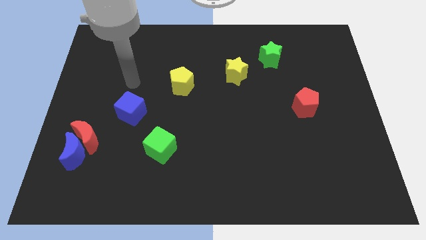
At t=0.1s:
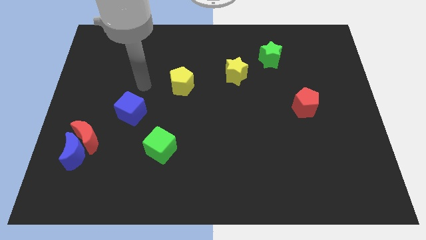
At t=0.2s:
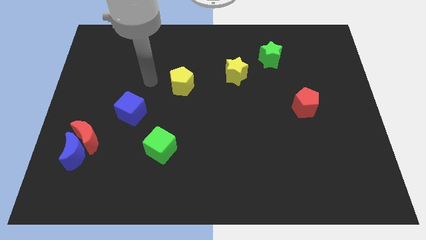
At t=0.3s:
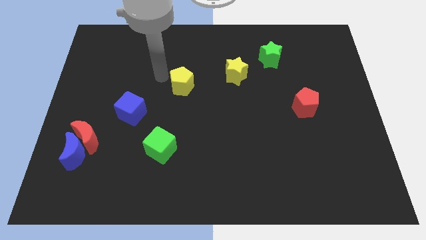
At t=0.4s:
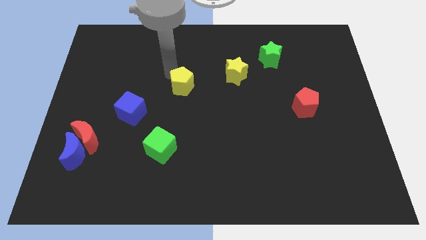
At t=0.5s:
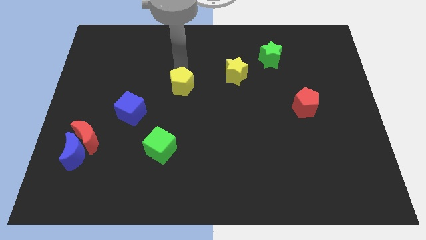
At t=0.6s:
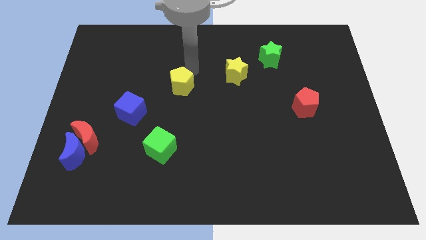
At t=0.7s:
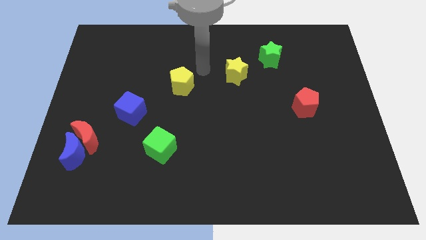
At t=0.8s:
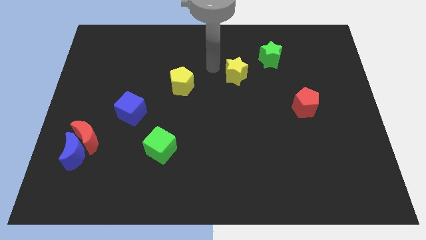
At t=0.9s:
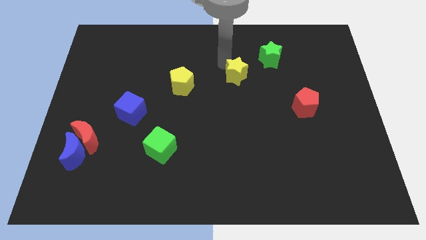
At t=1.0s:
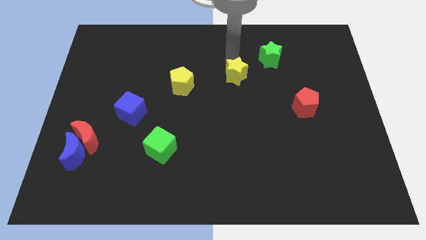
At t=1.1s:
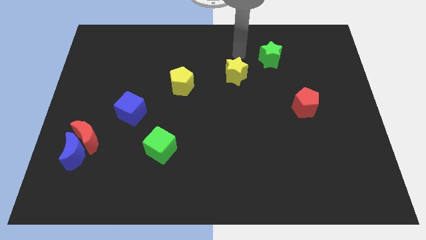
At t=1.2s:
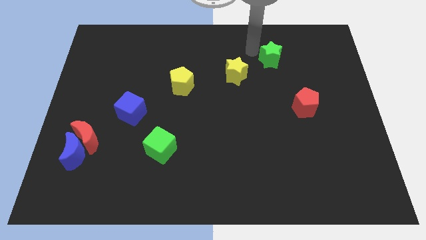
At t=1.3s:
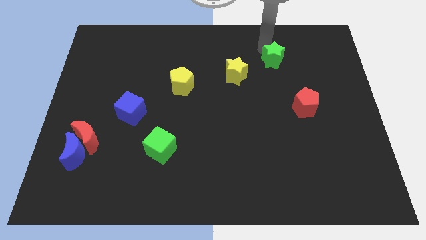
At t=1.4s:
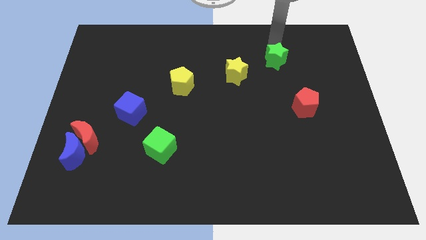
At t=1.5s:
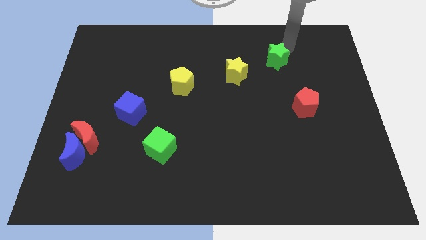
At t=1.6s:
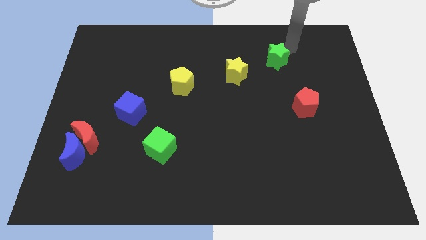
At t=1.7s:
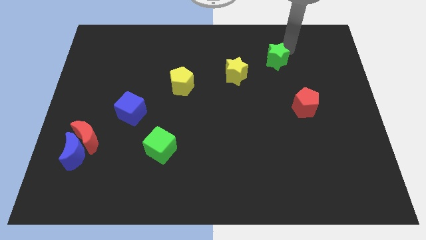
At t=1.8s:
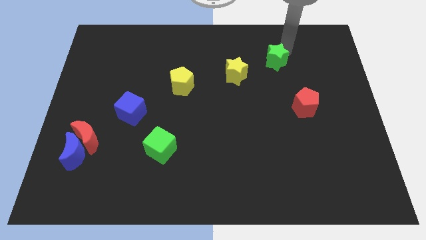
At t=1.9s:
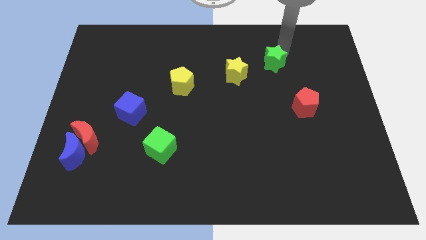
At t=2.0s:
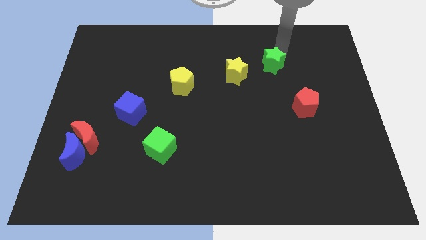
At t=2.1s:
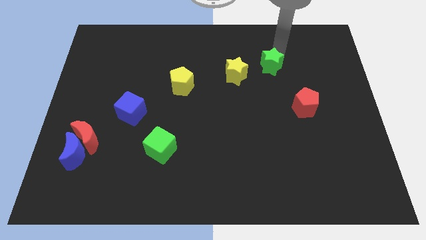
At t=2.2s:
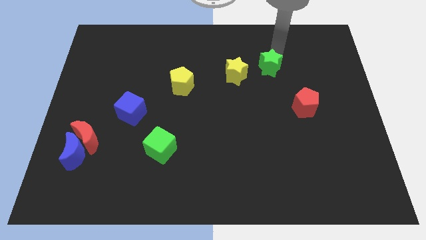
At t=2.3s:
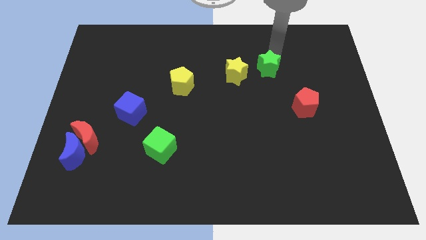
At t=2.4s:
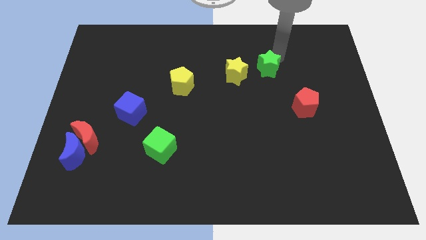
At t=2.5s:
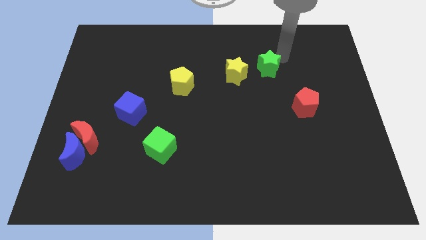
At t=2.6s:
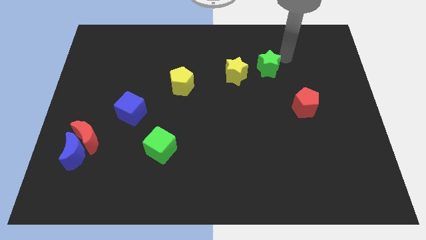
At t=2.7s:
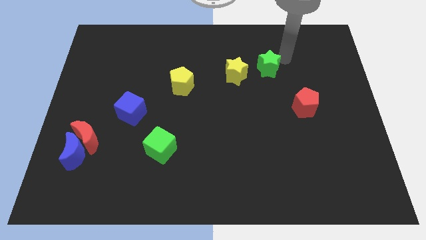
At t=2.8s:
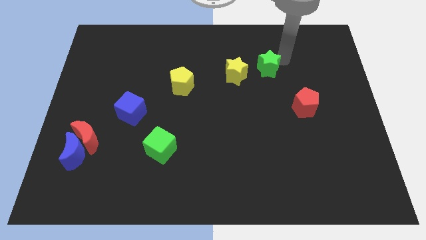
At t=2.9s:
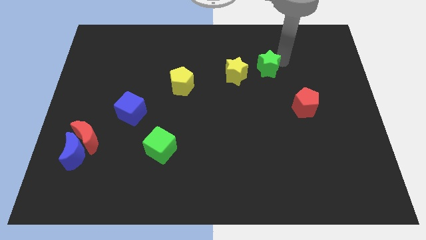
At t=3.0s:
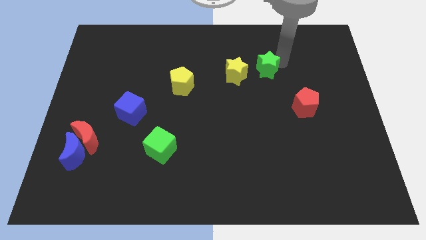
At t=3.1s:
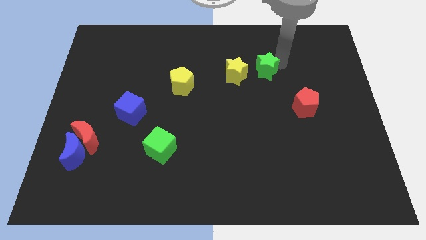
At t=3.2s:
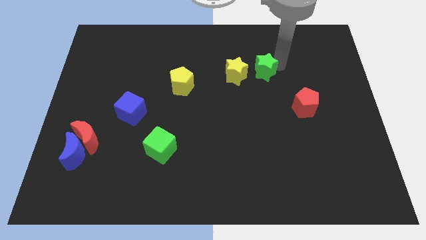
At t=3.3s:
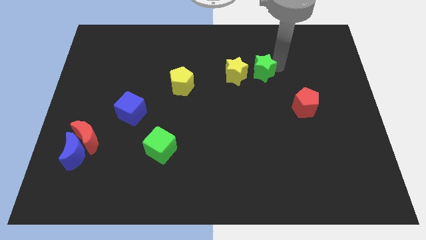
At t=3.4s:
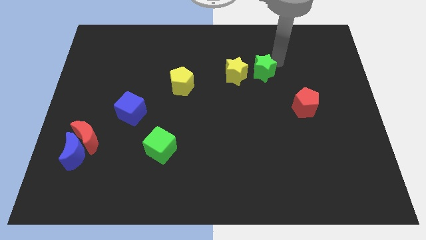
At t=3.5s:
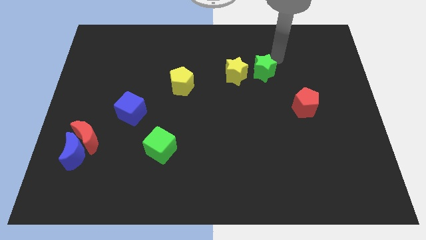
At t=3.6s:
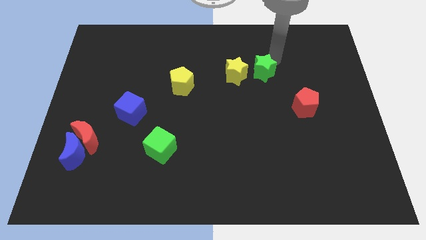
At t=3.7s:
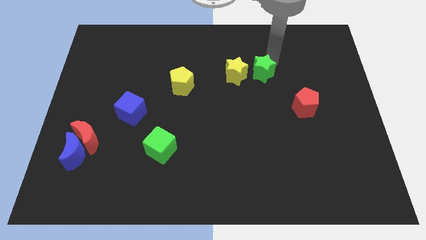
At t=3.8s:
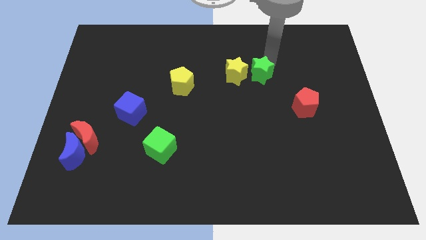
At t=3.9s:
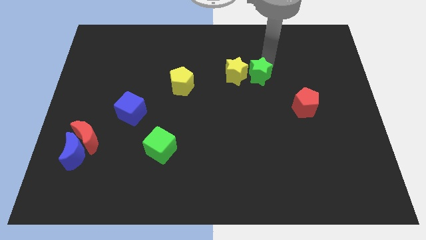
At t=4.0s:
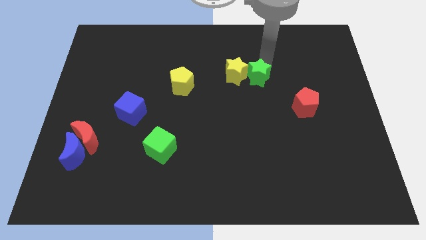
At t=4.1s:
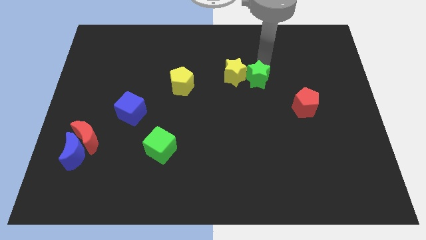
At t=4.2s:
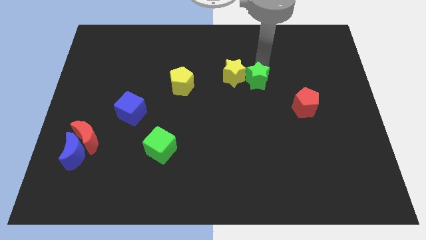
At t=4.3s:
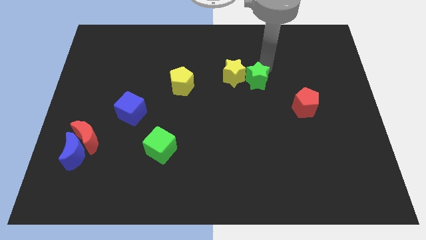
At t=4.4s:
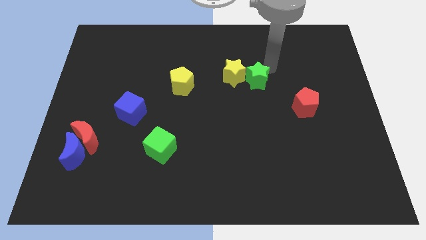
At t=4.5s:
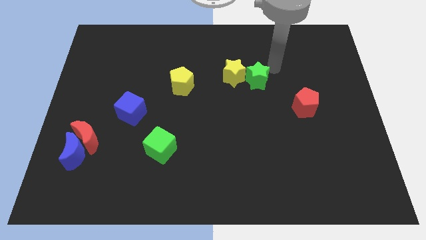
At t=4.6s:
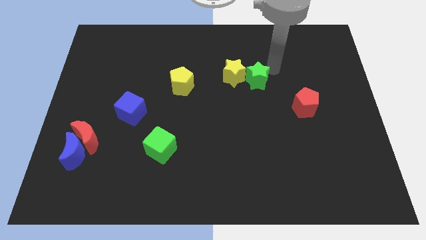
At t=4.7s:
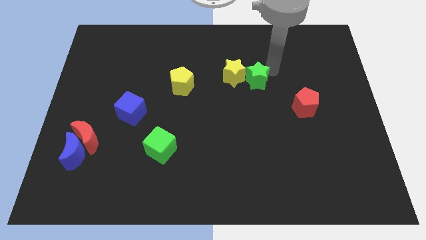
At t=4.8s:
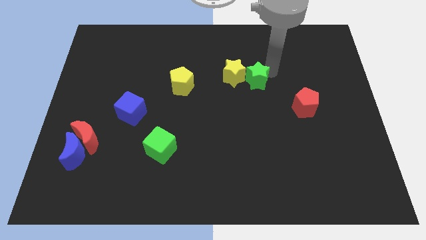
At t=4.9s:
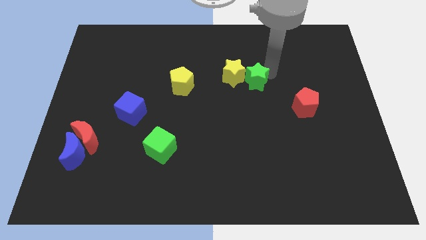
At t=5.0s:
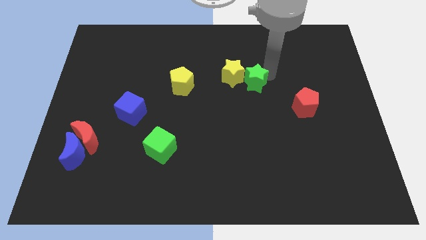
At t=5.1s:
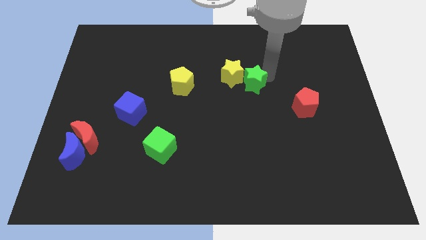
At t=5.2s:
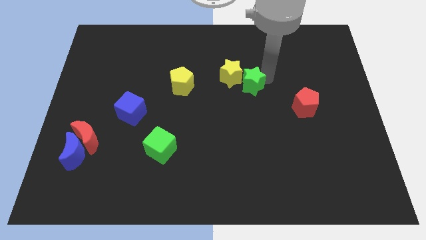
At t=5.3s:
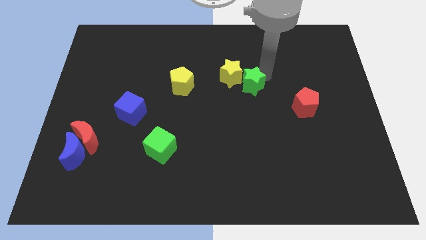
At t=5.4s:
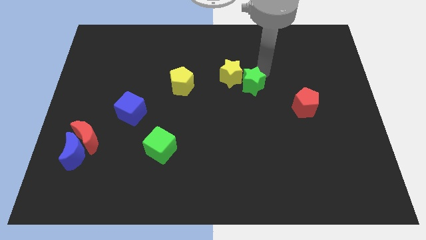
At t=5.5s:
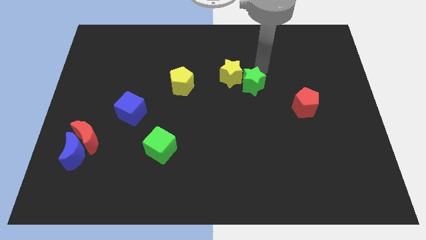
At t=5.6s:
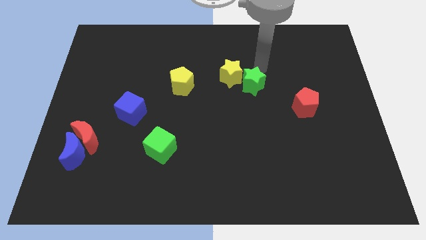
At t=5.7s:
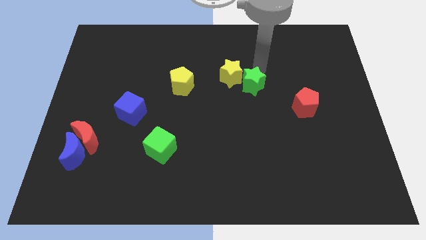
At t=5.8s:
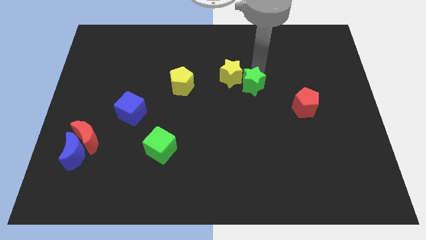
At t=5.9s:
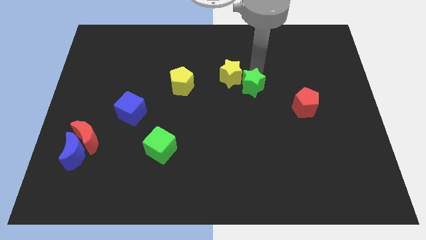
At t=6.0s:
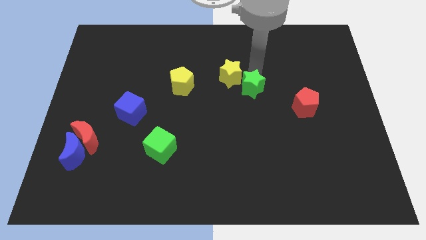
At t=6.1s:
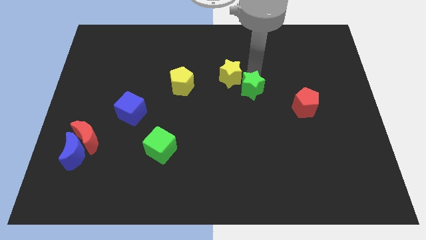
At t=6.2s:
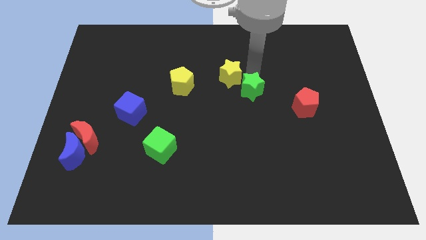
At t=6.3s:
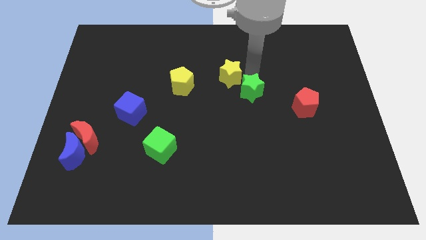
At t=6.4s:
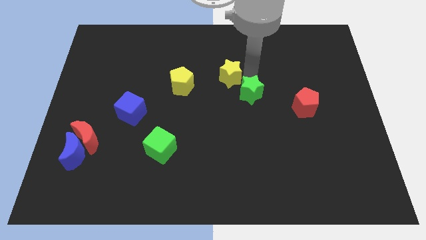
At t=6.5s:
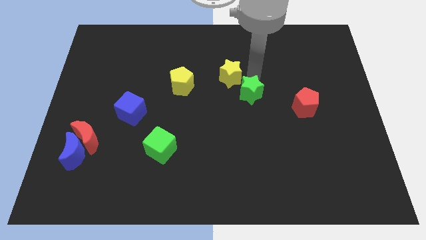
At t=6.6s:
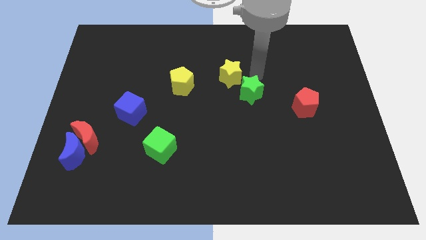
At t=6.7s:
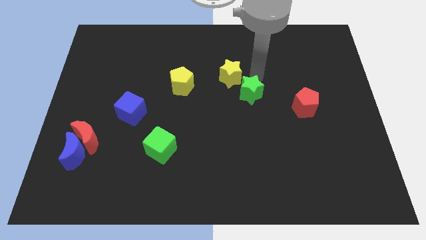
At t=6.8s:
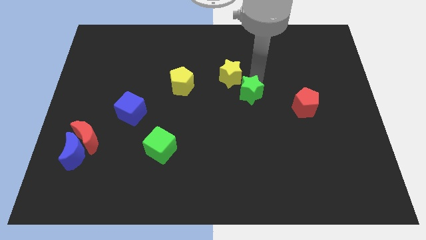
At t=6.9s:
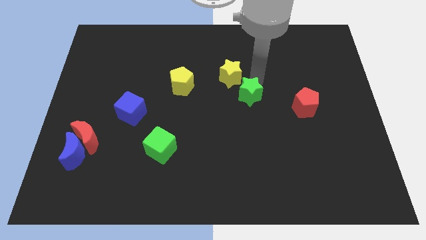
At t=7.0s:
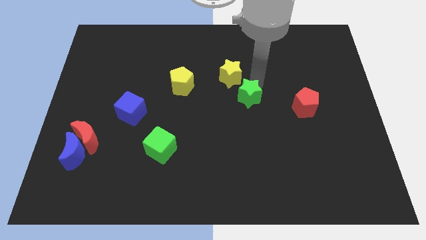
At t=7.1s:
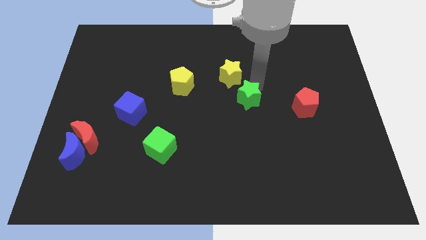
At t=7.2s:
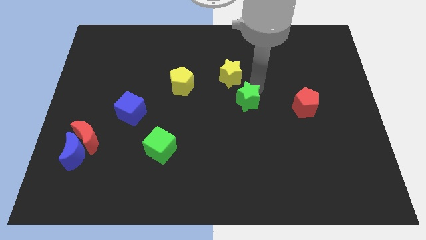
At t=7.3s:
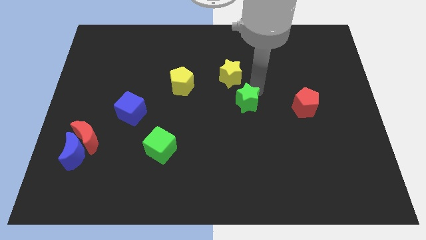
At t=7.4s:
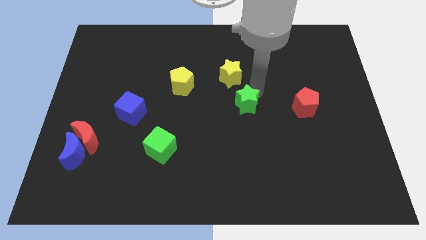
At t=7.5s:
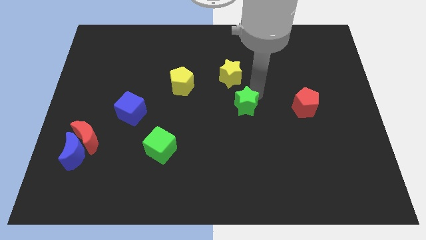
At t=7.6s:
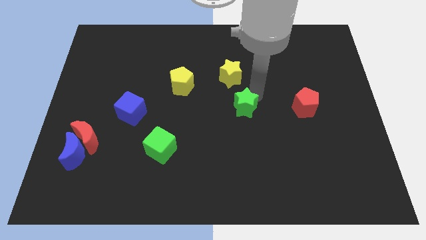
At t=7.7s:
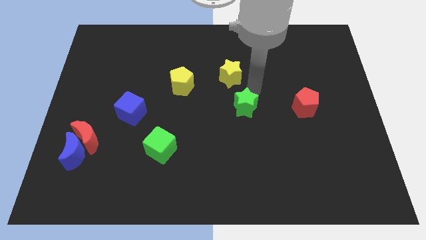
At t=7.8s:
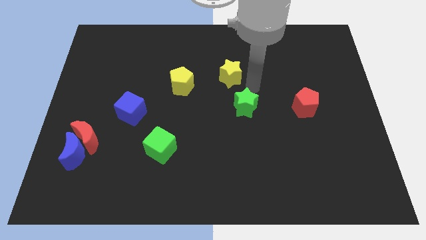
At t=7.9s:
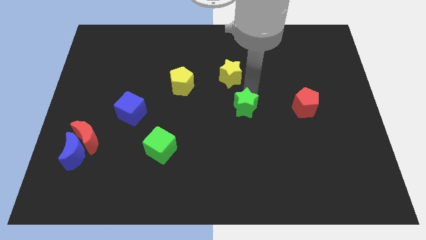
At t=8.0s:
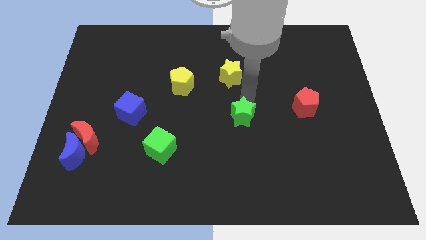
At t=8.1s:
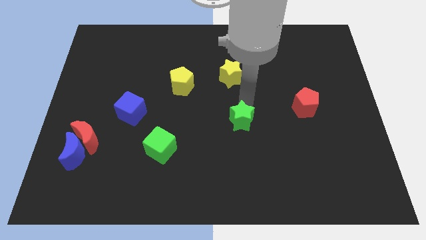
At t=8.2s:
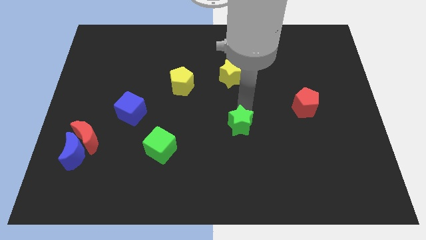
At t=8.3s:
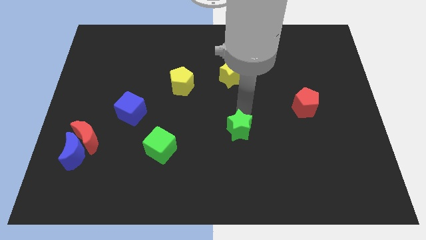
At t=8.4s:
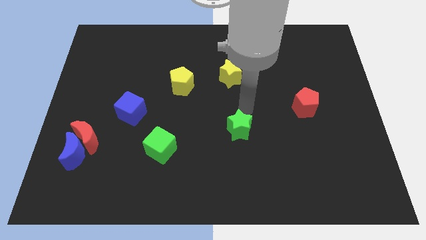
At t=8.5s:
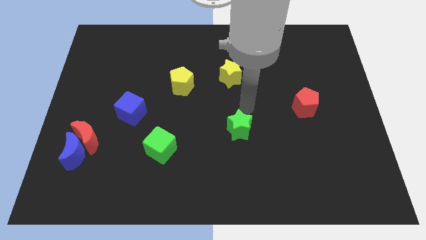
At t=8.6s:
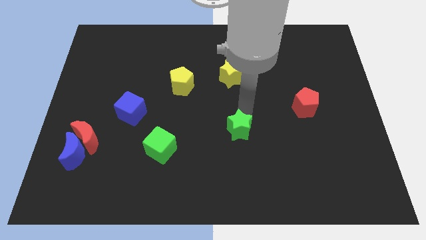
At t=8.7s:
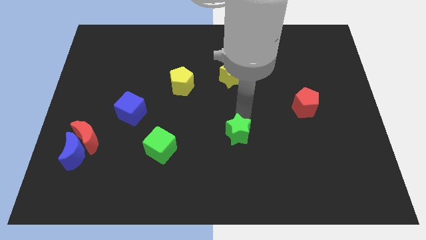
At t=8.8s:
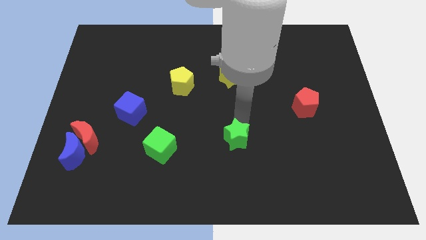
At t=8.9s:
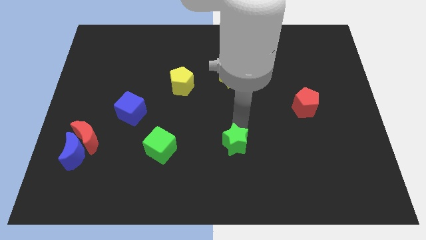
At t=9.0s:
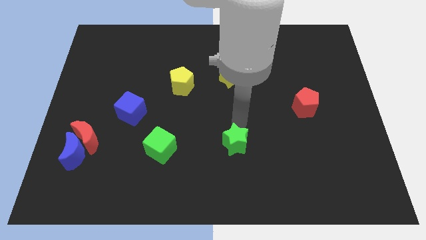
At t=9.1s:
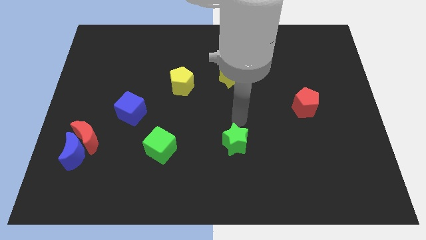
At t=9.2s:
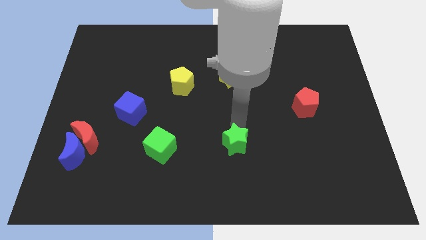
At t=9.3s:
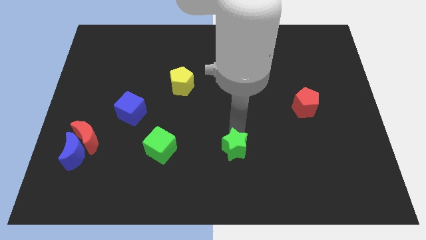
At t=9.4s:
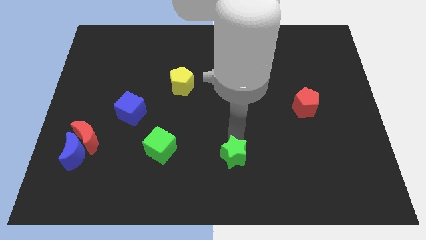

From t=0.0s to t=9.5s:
move the green star to the bottom side
